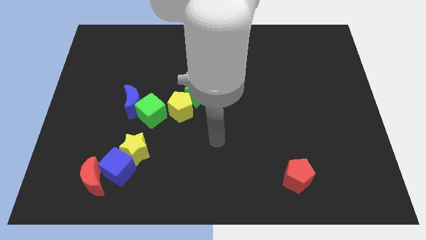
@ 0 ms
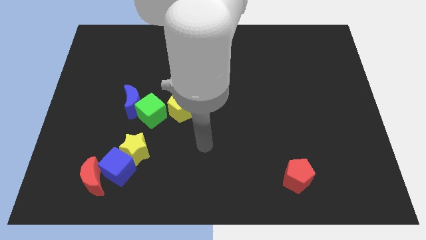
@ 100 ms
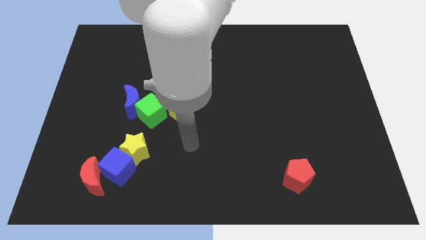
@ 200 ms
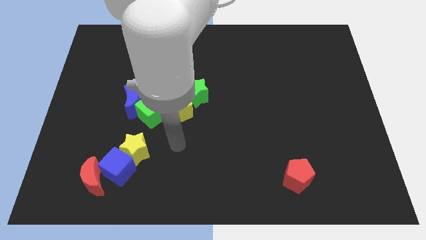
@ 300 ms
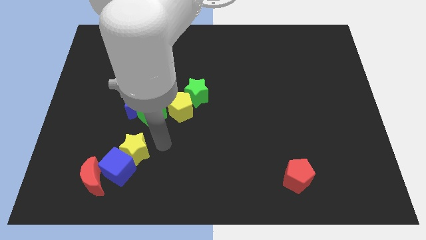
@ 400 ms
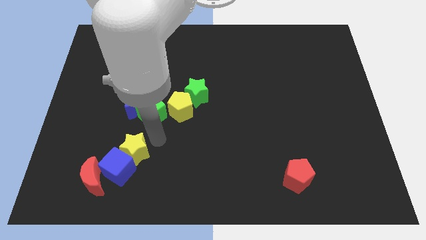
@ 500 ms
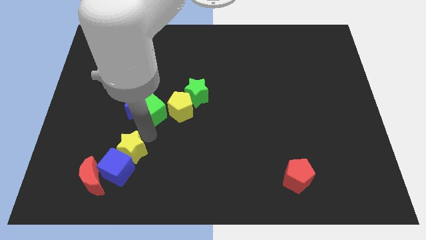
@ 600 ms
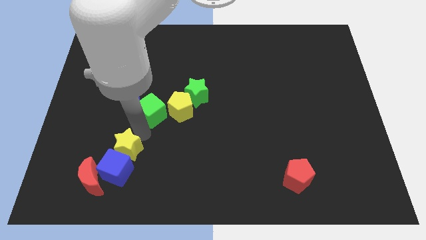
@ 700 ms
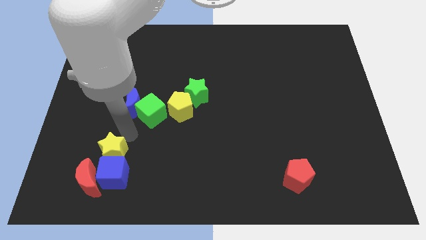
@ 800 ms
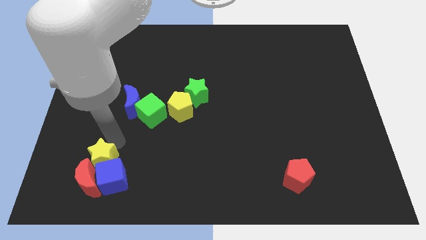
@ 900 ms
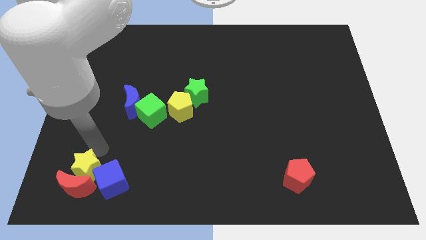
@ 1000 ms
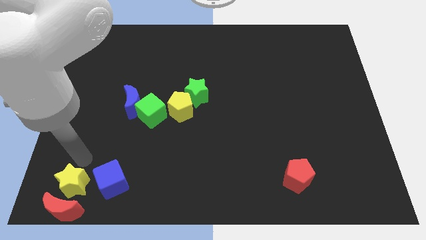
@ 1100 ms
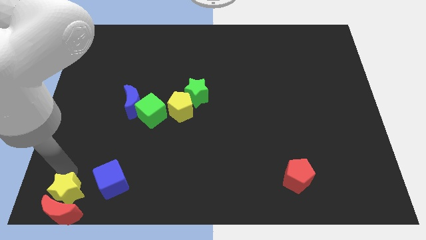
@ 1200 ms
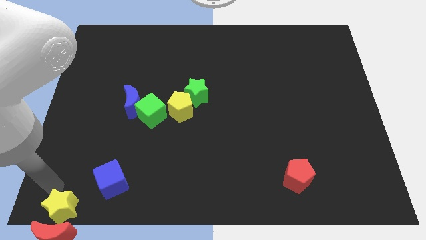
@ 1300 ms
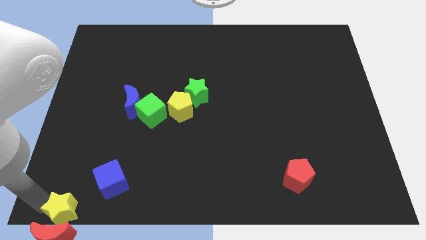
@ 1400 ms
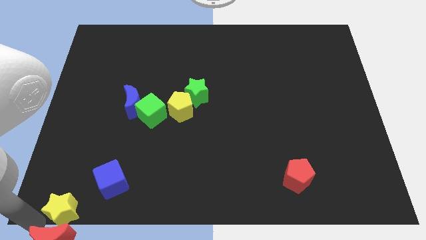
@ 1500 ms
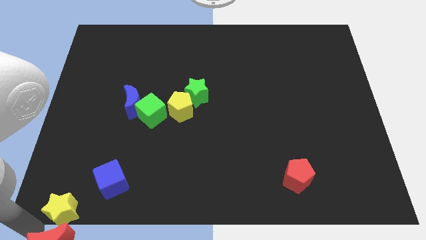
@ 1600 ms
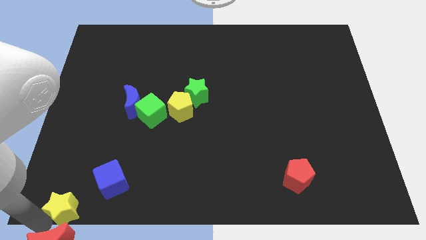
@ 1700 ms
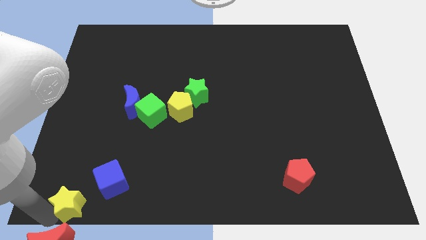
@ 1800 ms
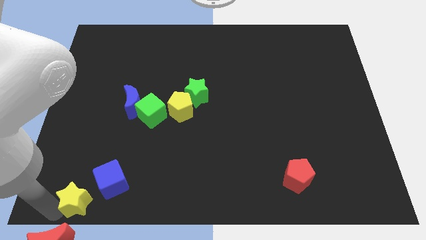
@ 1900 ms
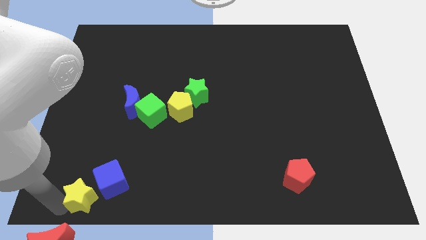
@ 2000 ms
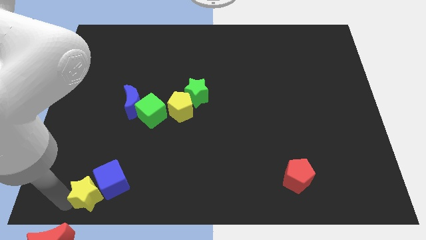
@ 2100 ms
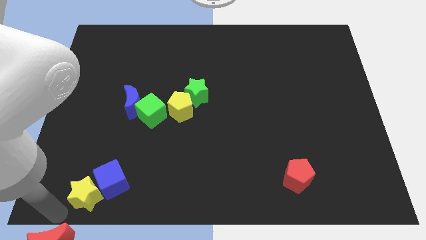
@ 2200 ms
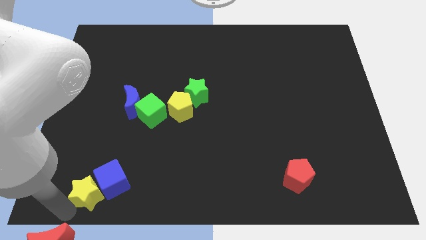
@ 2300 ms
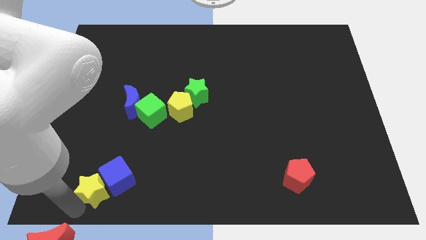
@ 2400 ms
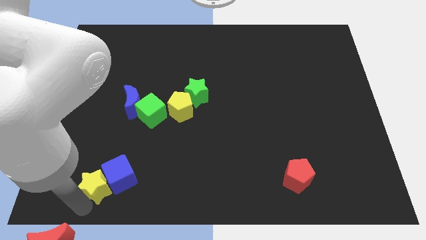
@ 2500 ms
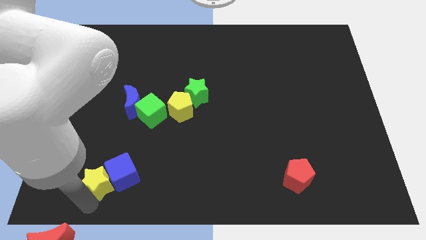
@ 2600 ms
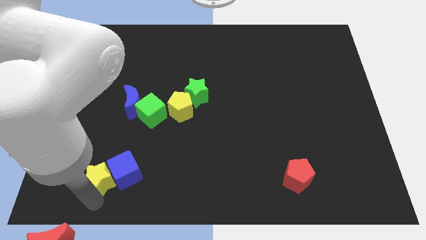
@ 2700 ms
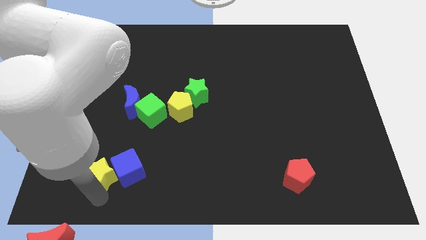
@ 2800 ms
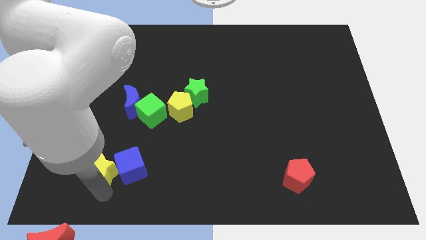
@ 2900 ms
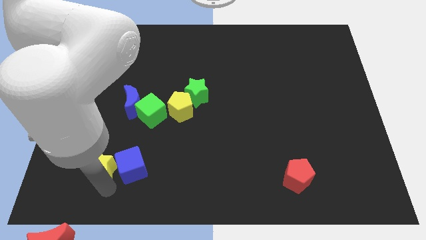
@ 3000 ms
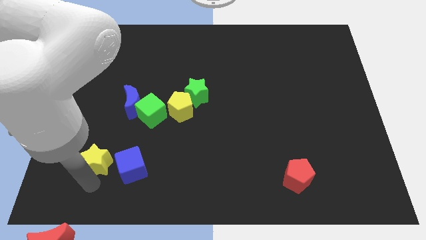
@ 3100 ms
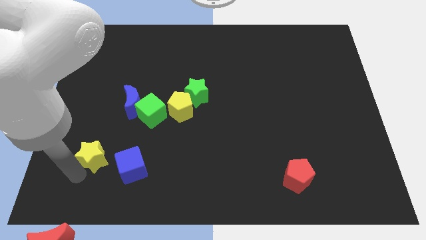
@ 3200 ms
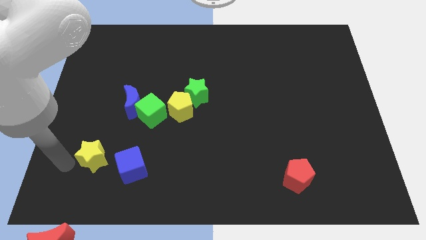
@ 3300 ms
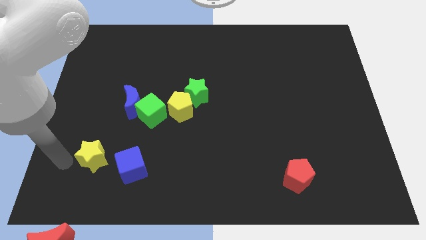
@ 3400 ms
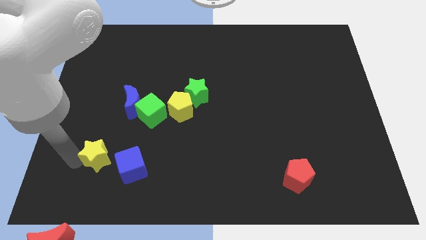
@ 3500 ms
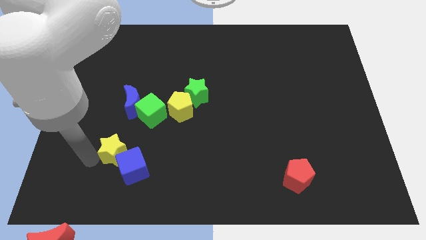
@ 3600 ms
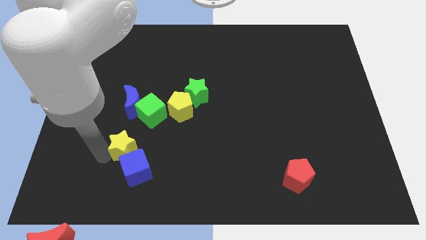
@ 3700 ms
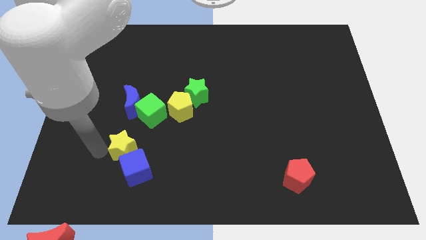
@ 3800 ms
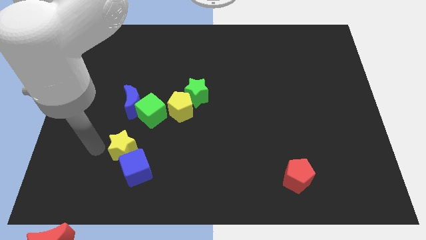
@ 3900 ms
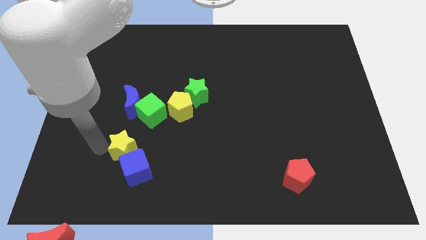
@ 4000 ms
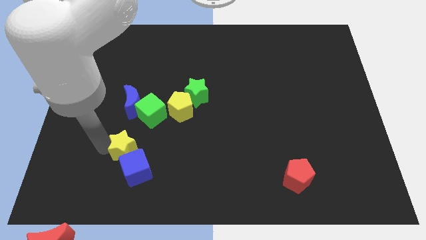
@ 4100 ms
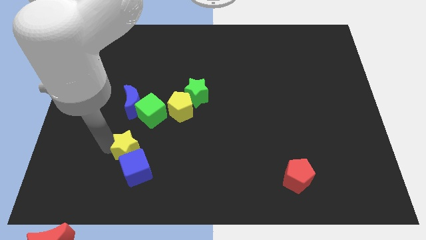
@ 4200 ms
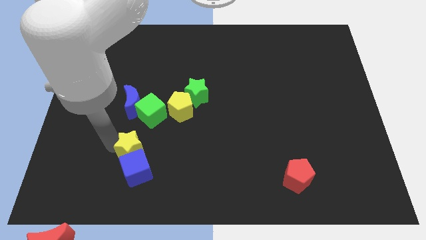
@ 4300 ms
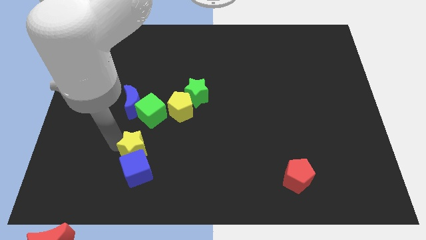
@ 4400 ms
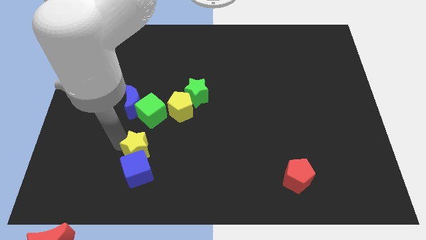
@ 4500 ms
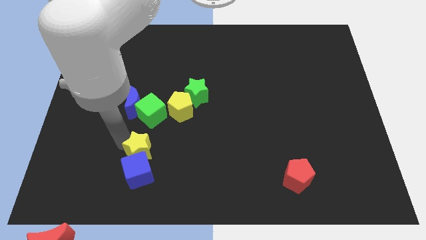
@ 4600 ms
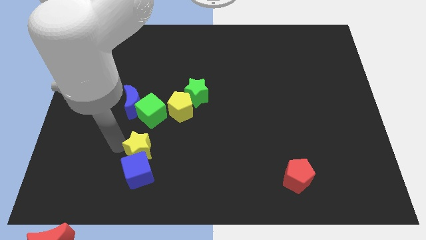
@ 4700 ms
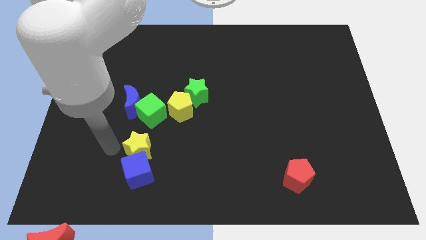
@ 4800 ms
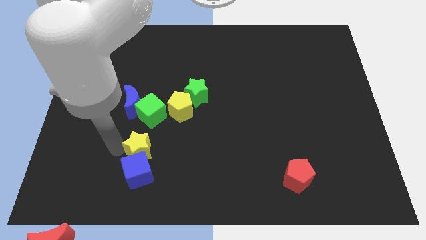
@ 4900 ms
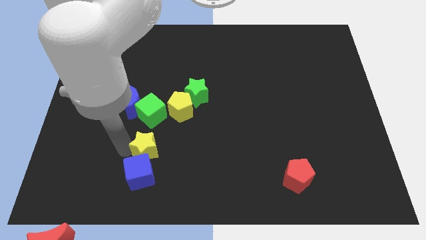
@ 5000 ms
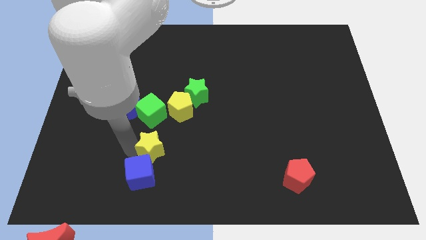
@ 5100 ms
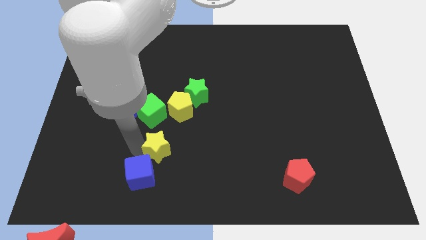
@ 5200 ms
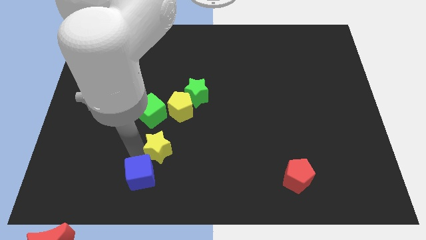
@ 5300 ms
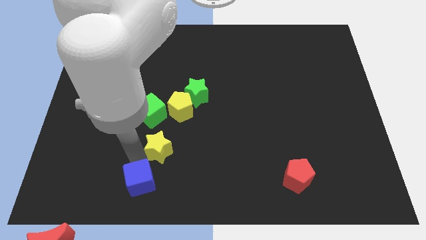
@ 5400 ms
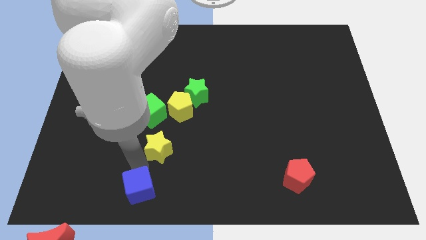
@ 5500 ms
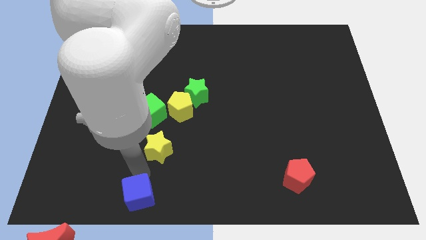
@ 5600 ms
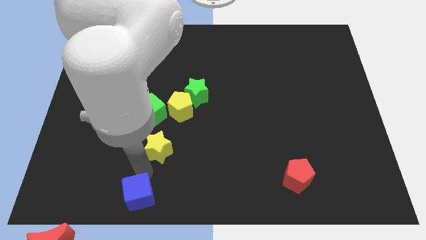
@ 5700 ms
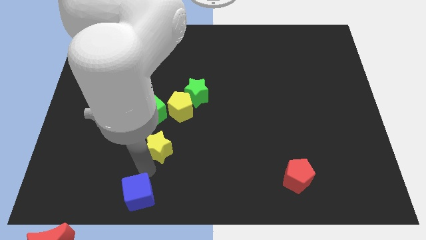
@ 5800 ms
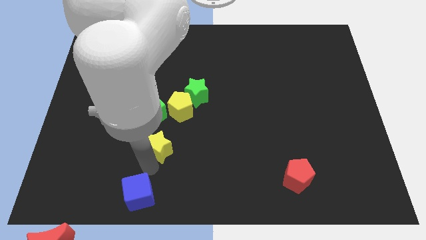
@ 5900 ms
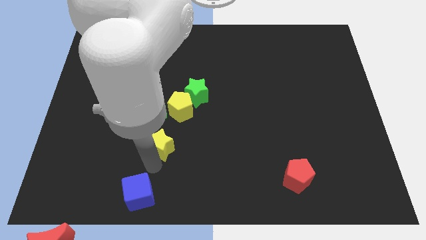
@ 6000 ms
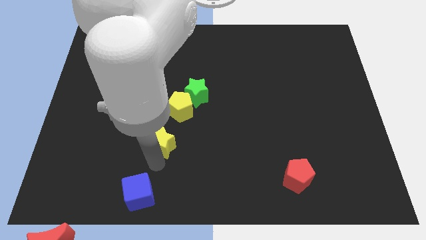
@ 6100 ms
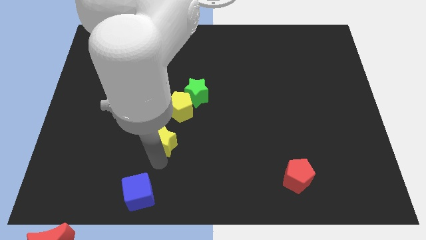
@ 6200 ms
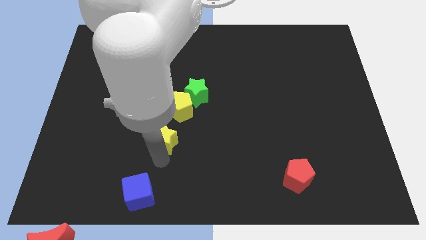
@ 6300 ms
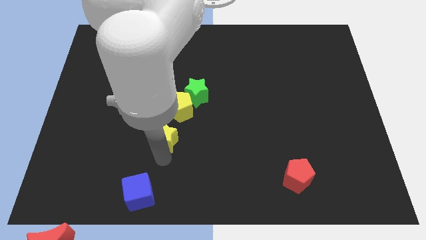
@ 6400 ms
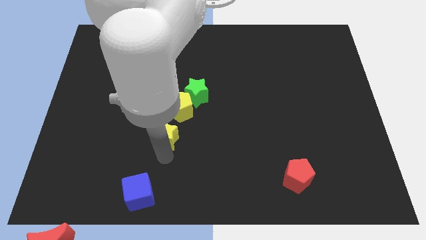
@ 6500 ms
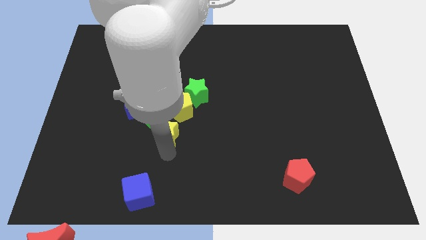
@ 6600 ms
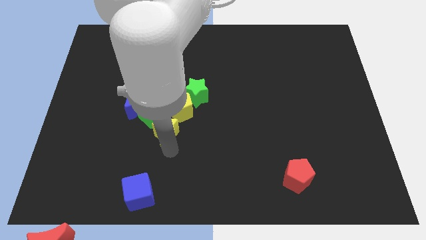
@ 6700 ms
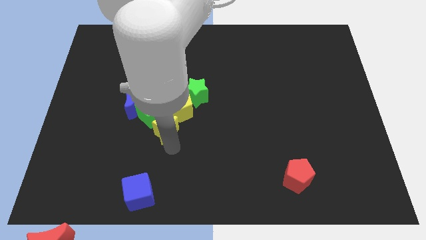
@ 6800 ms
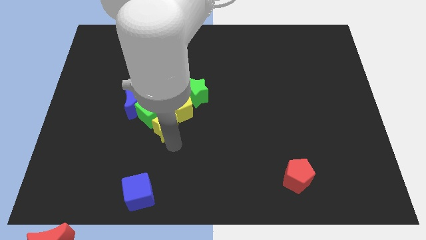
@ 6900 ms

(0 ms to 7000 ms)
slide the yellow star to the yellow pentagon

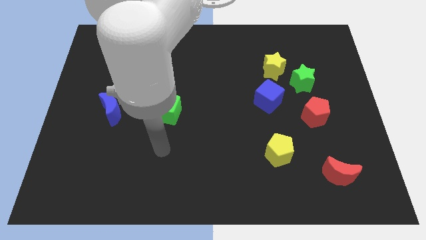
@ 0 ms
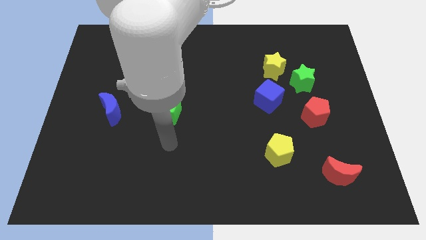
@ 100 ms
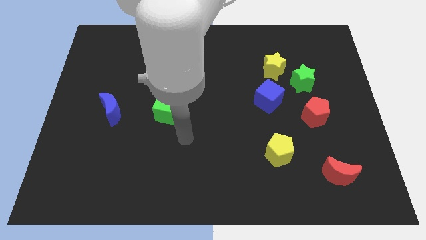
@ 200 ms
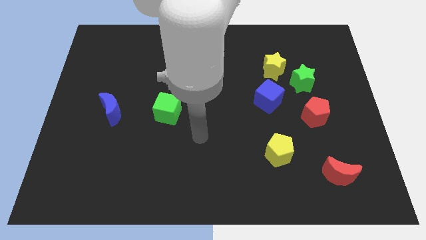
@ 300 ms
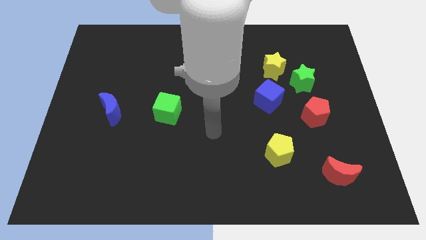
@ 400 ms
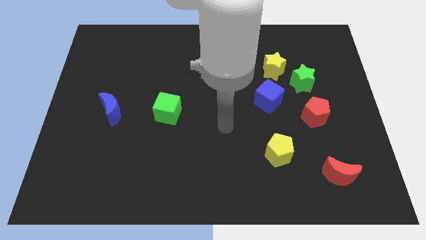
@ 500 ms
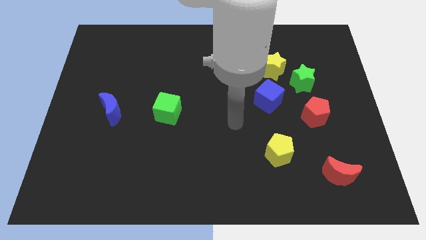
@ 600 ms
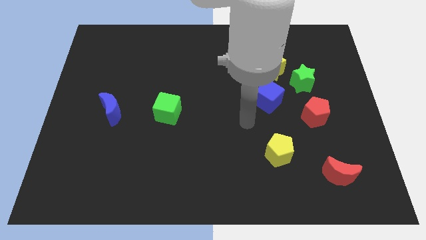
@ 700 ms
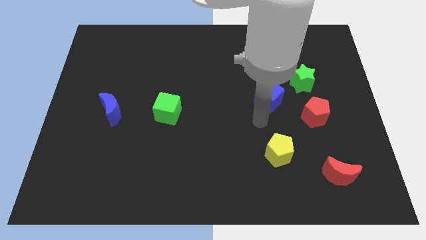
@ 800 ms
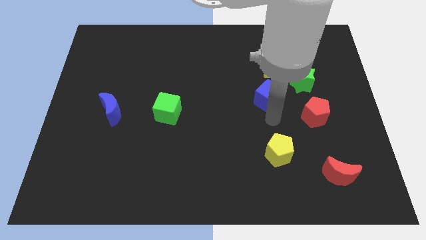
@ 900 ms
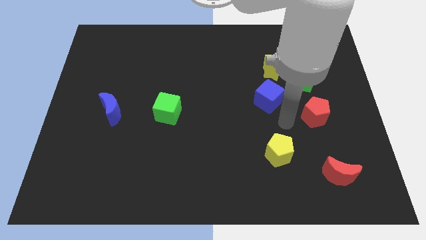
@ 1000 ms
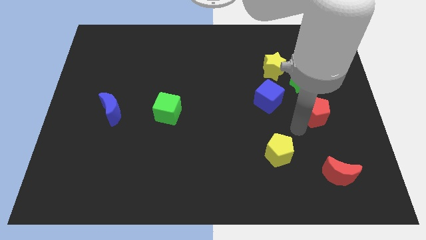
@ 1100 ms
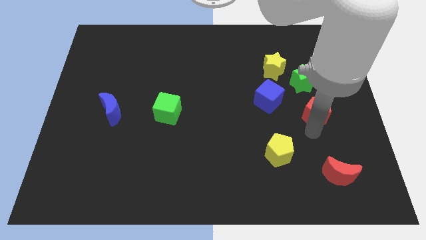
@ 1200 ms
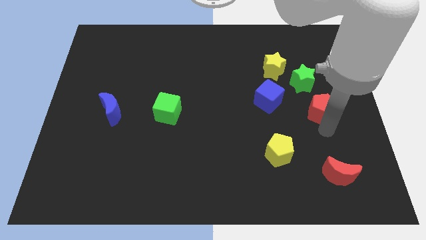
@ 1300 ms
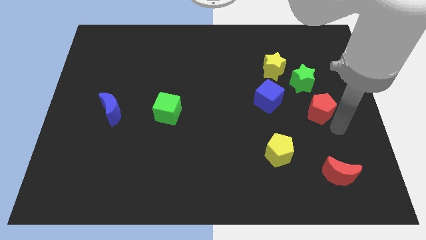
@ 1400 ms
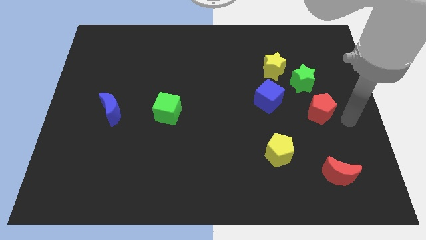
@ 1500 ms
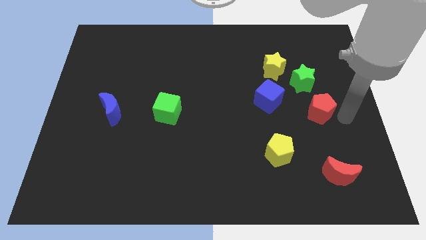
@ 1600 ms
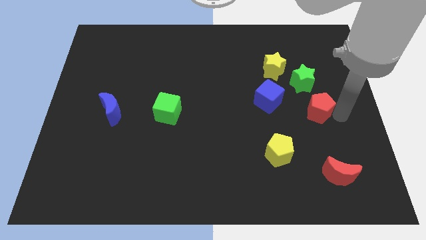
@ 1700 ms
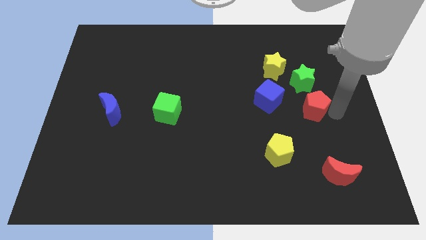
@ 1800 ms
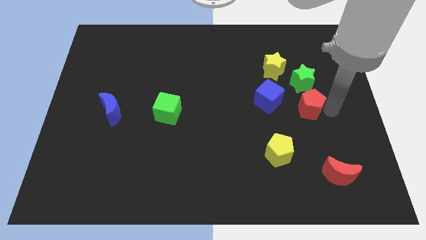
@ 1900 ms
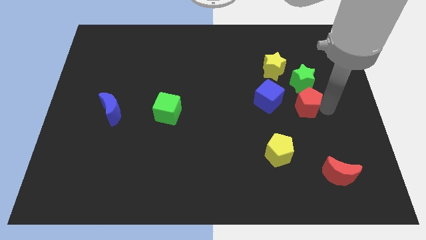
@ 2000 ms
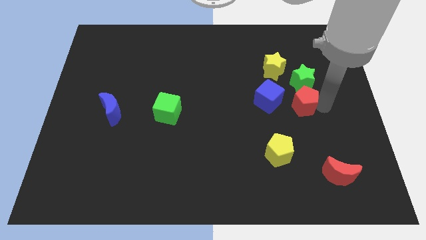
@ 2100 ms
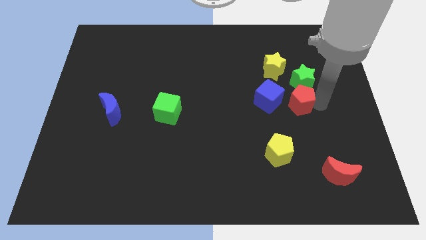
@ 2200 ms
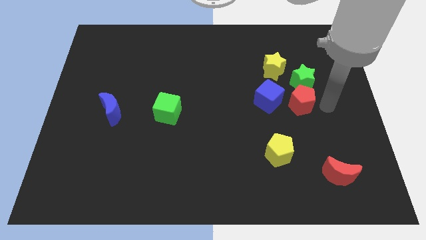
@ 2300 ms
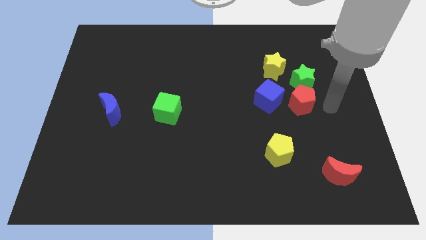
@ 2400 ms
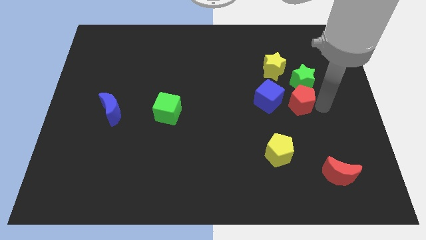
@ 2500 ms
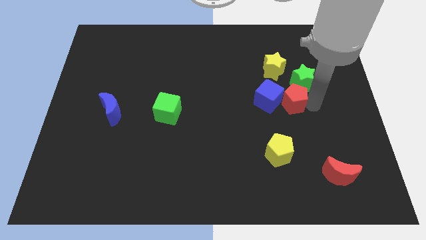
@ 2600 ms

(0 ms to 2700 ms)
push the red pentagon next to the blue cube
